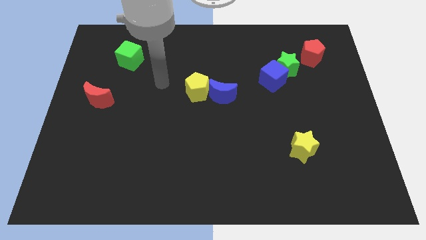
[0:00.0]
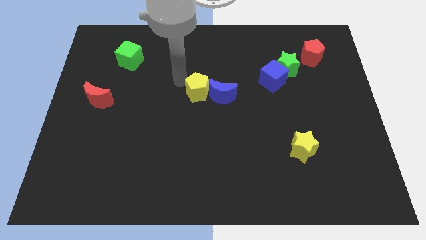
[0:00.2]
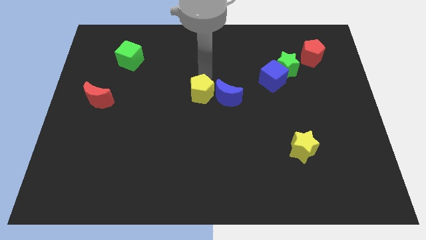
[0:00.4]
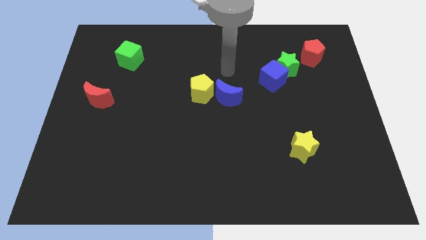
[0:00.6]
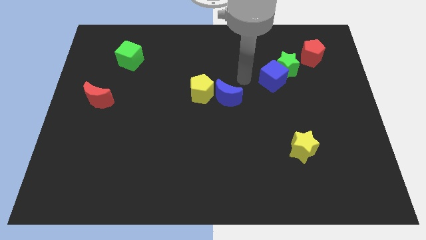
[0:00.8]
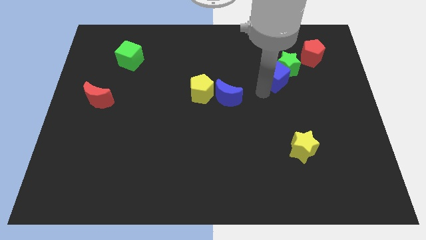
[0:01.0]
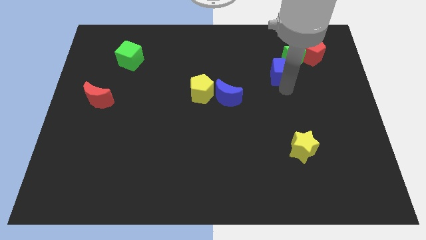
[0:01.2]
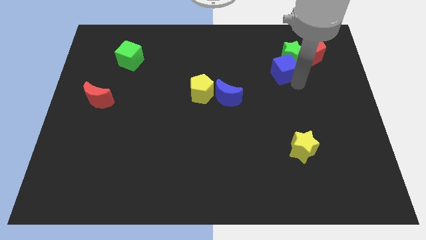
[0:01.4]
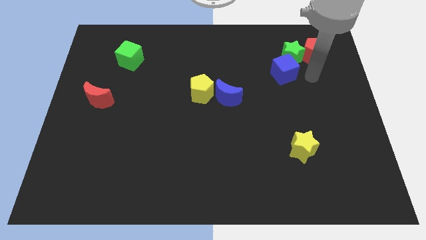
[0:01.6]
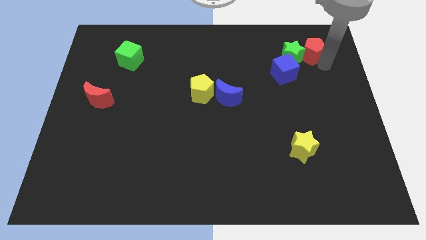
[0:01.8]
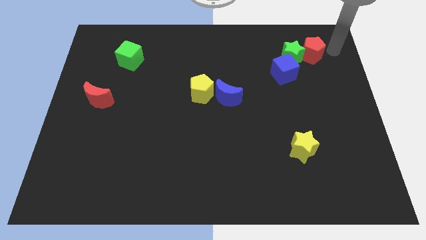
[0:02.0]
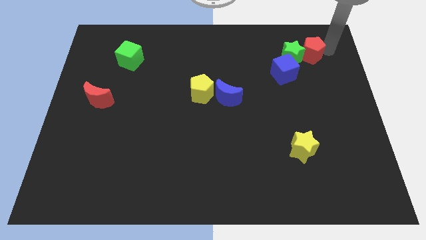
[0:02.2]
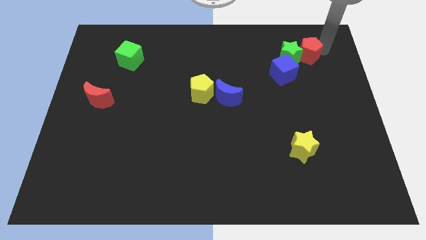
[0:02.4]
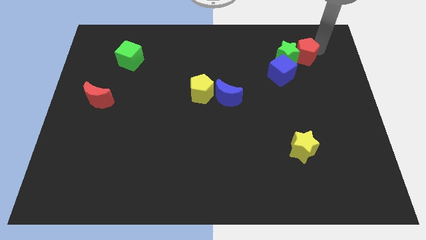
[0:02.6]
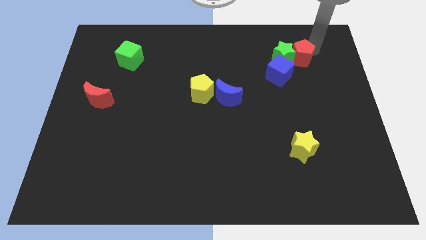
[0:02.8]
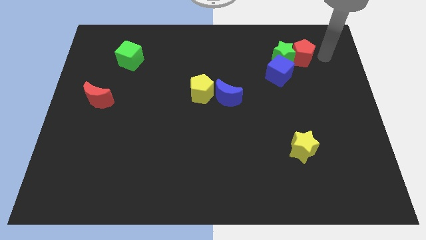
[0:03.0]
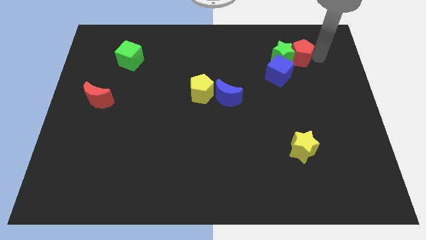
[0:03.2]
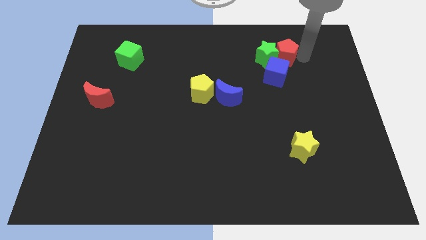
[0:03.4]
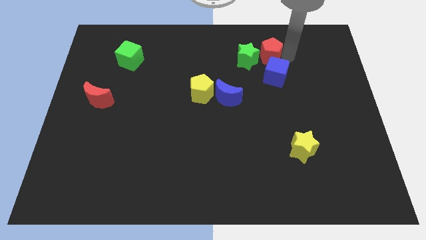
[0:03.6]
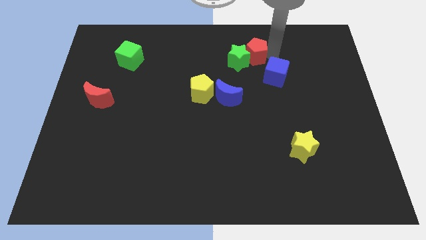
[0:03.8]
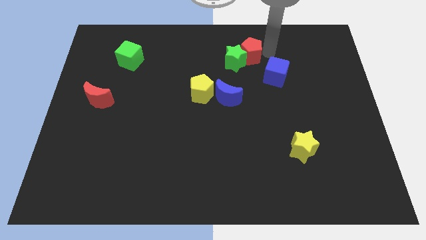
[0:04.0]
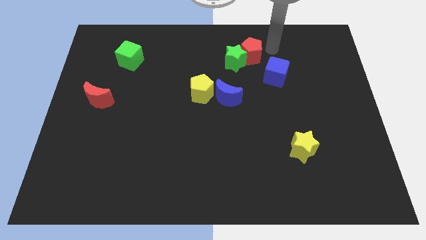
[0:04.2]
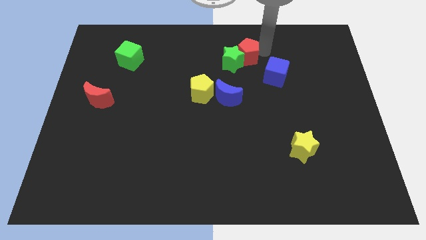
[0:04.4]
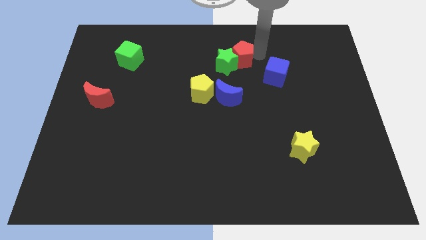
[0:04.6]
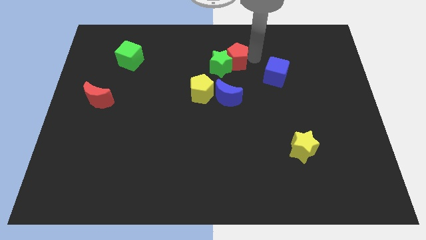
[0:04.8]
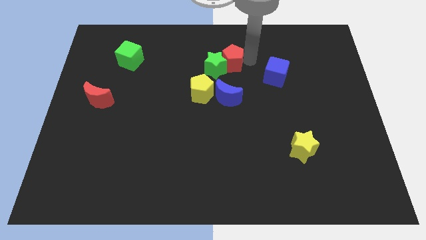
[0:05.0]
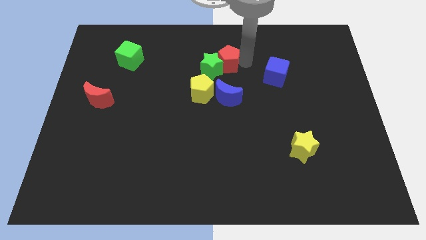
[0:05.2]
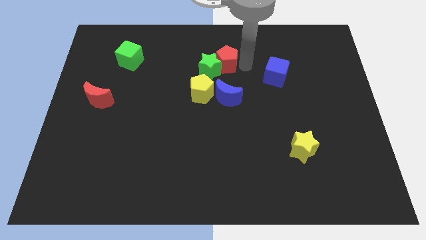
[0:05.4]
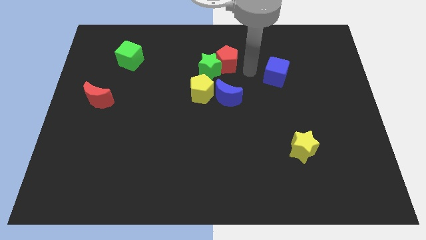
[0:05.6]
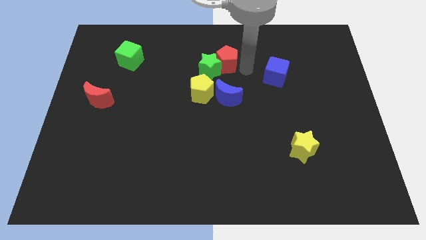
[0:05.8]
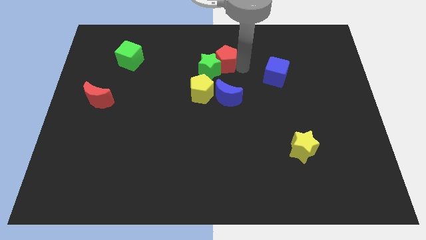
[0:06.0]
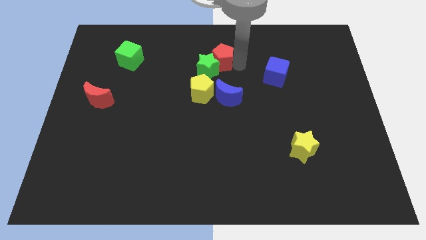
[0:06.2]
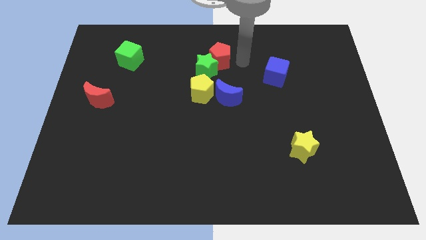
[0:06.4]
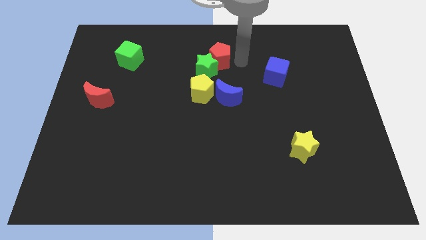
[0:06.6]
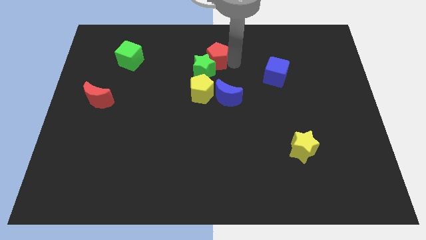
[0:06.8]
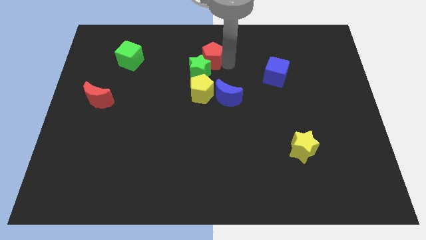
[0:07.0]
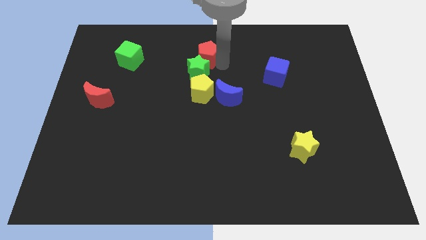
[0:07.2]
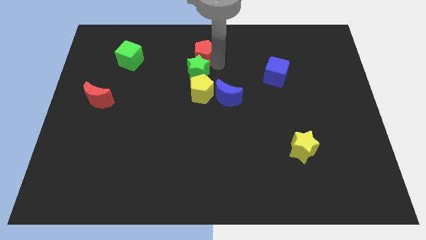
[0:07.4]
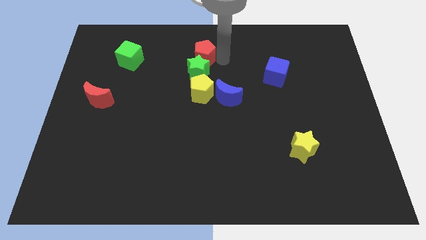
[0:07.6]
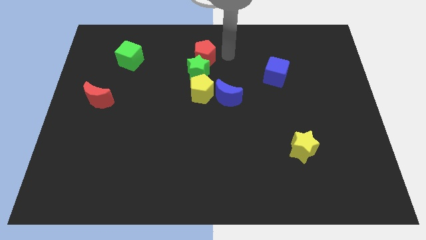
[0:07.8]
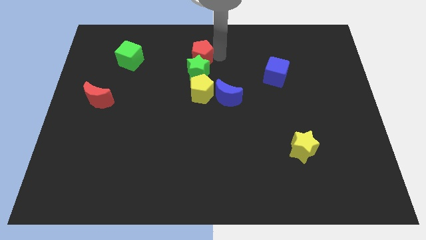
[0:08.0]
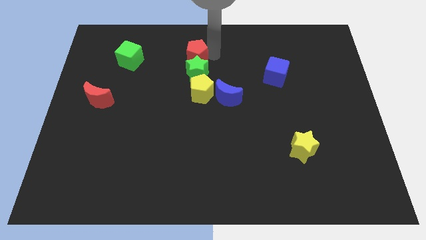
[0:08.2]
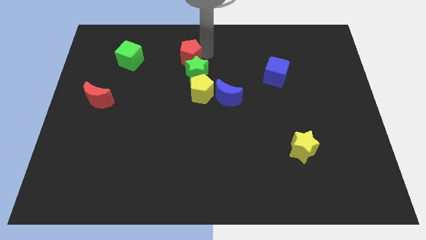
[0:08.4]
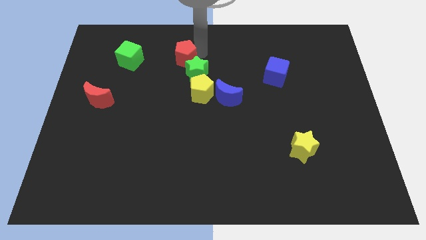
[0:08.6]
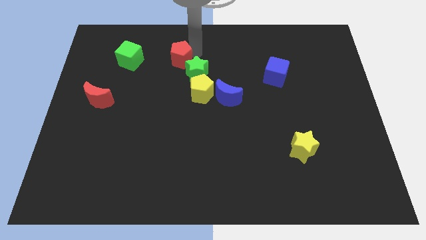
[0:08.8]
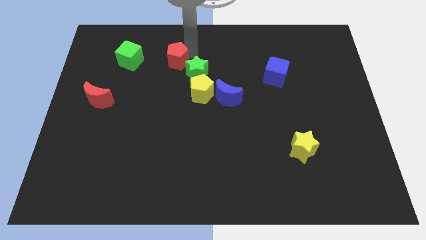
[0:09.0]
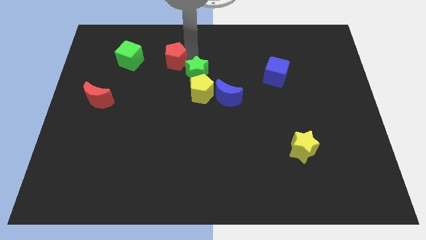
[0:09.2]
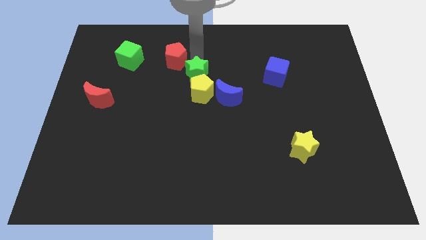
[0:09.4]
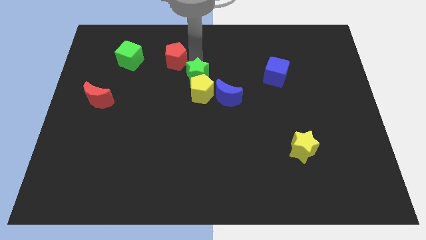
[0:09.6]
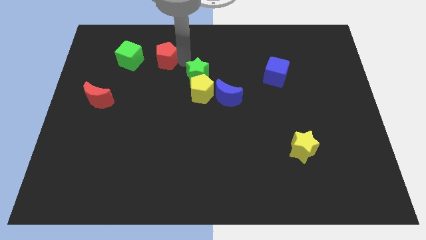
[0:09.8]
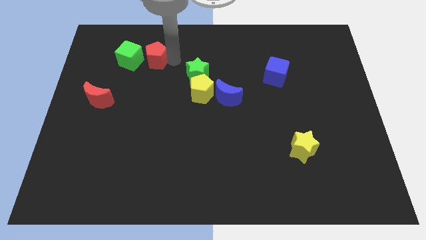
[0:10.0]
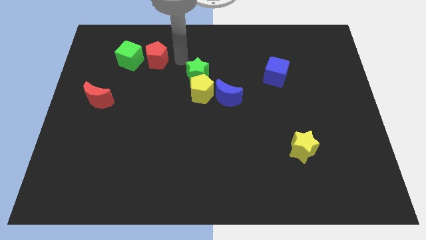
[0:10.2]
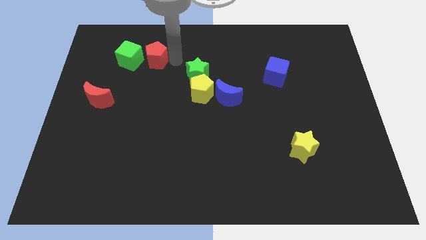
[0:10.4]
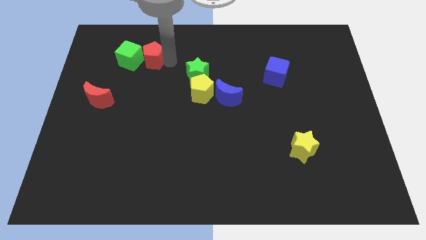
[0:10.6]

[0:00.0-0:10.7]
slide the red pentagon next to the green cube

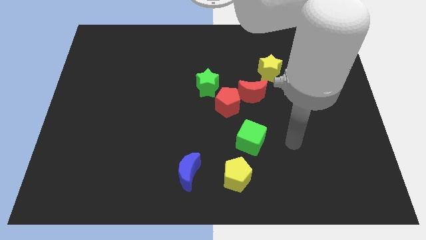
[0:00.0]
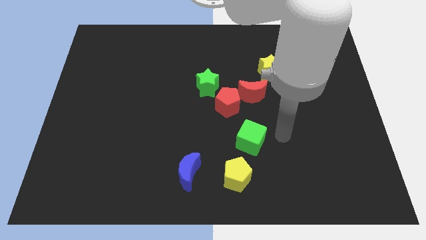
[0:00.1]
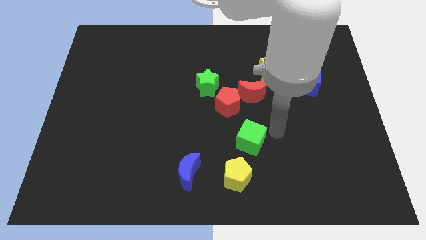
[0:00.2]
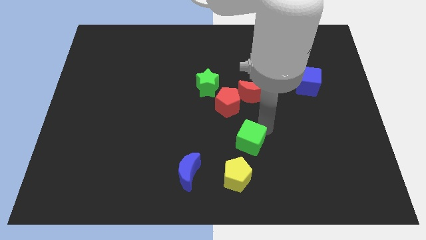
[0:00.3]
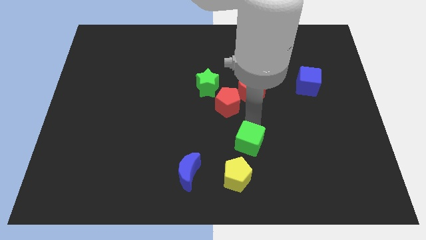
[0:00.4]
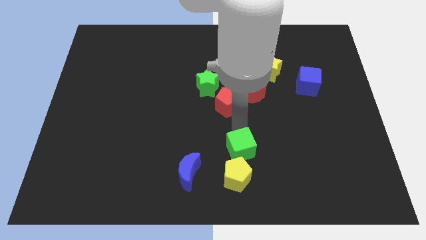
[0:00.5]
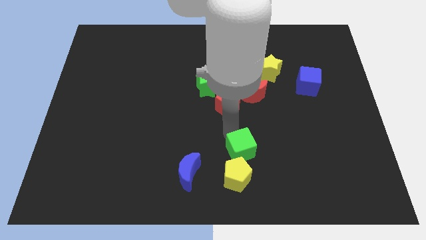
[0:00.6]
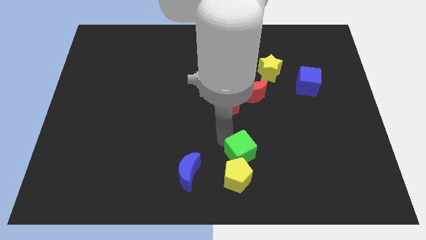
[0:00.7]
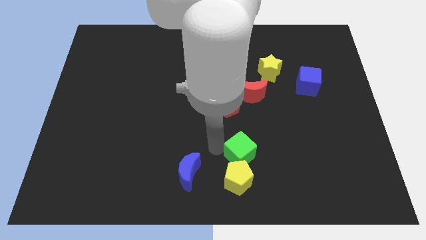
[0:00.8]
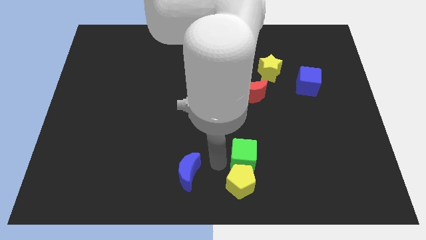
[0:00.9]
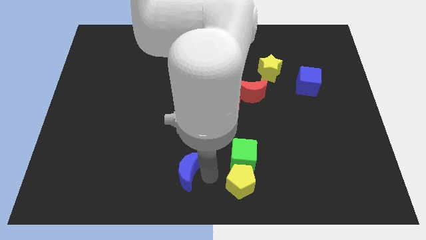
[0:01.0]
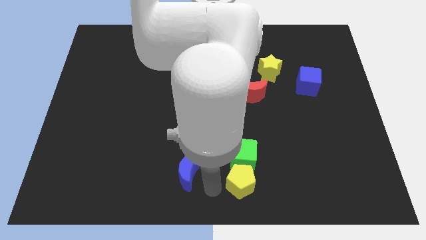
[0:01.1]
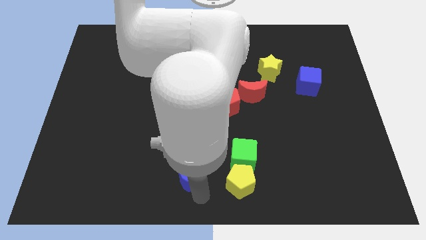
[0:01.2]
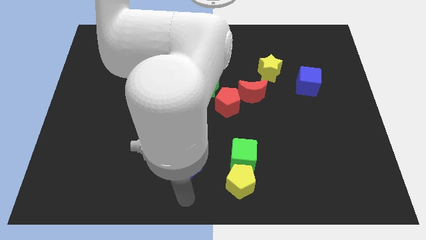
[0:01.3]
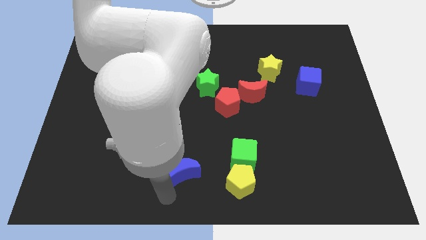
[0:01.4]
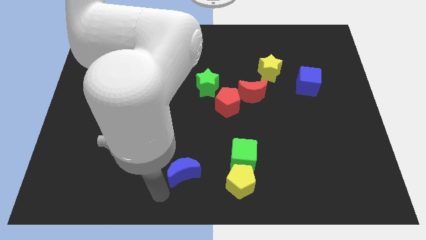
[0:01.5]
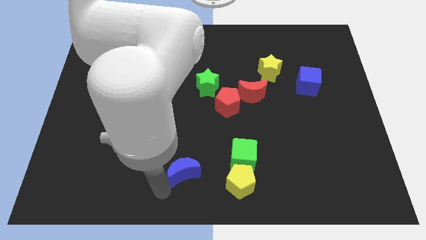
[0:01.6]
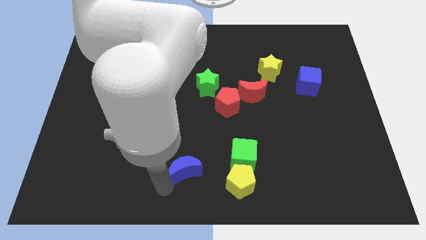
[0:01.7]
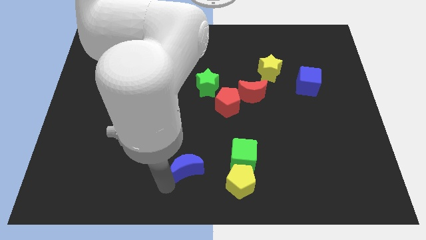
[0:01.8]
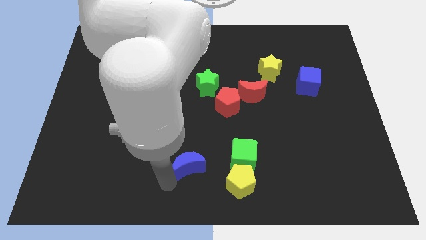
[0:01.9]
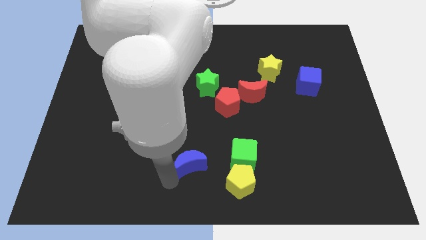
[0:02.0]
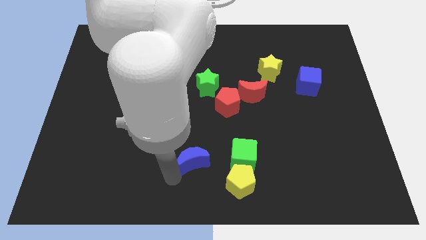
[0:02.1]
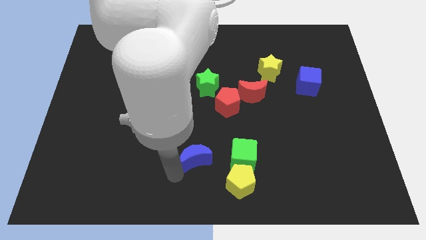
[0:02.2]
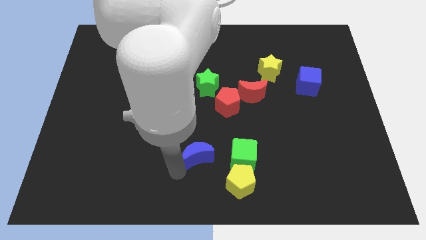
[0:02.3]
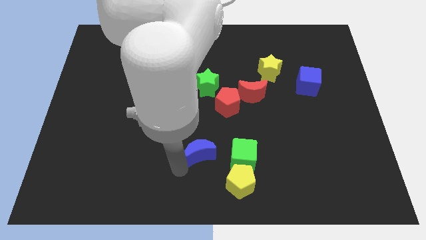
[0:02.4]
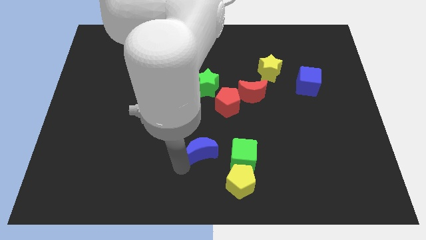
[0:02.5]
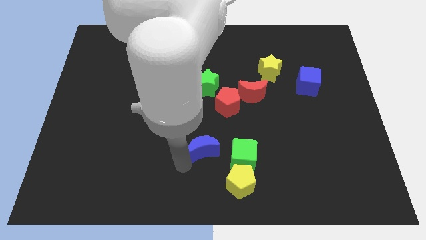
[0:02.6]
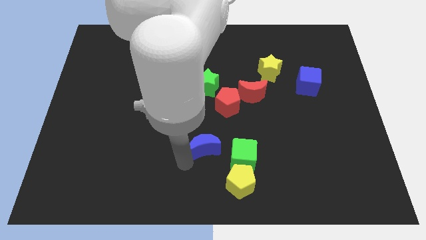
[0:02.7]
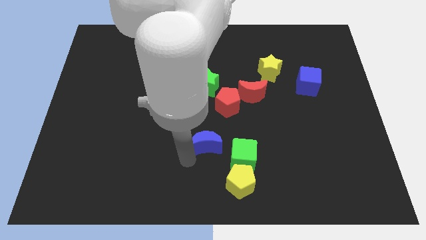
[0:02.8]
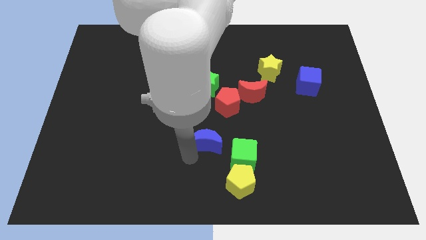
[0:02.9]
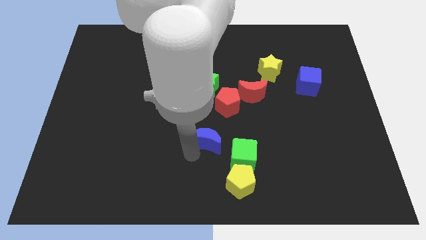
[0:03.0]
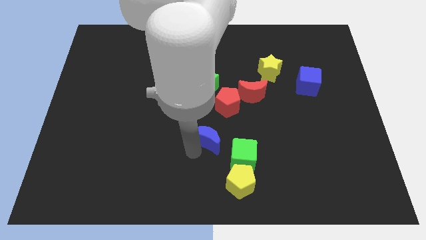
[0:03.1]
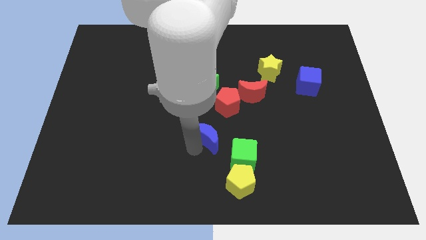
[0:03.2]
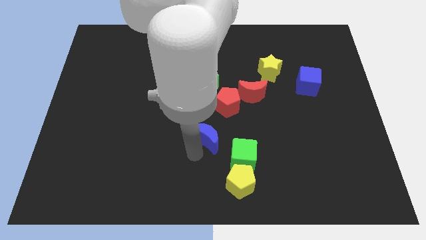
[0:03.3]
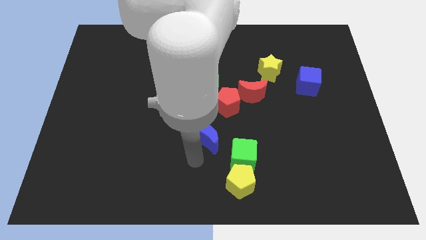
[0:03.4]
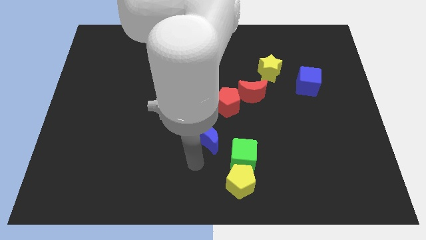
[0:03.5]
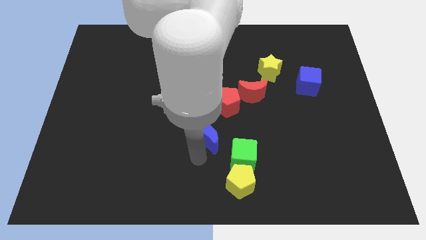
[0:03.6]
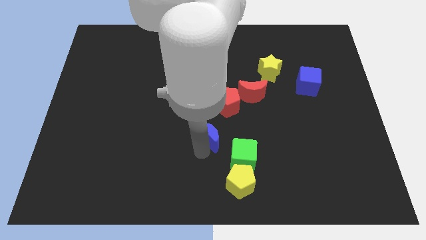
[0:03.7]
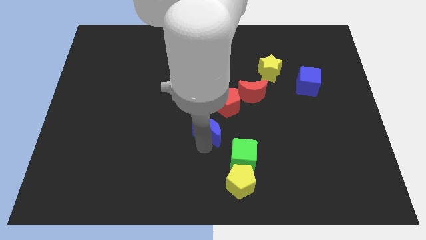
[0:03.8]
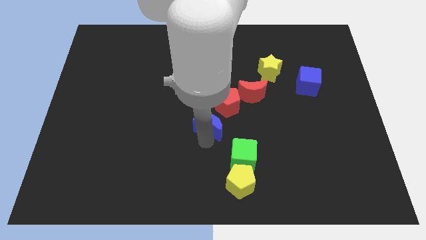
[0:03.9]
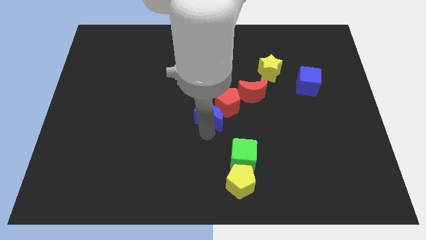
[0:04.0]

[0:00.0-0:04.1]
move the blue moon towards the red pentagon
